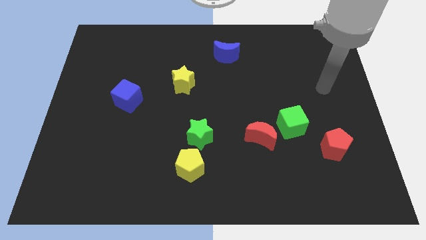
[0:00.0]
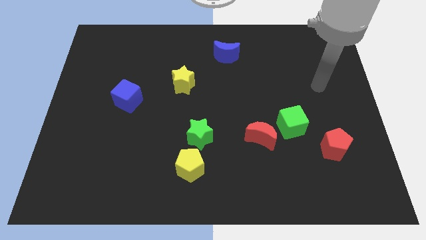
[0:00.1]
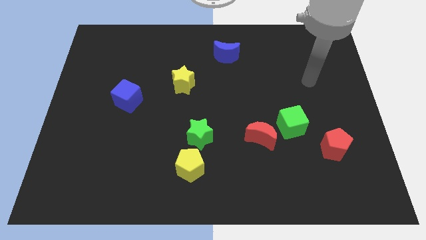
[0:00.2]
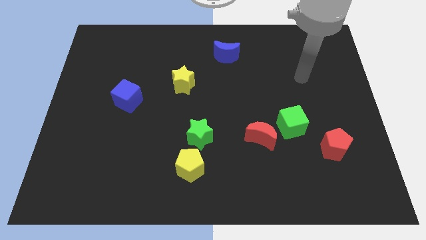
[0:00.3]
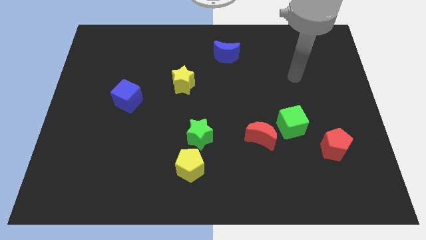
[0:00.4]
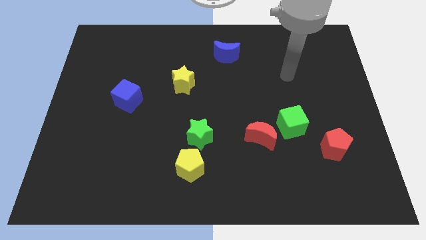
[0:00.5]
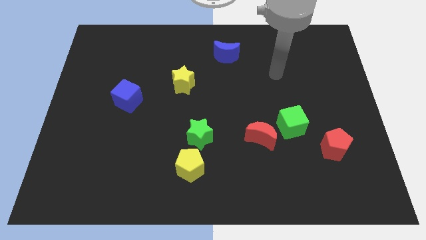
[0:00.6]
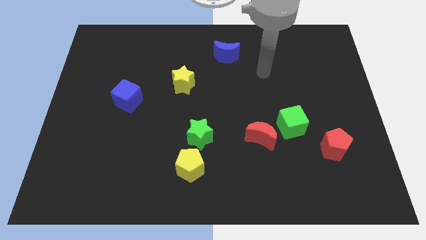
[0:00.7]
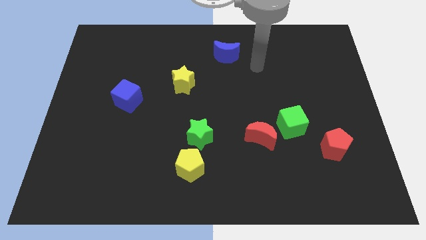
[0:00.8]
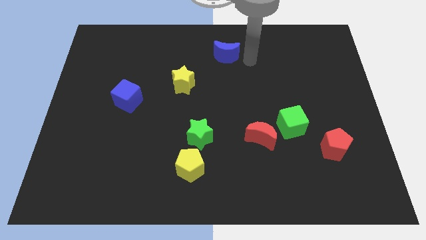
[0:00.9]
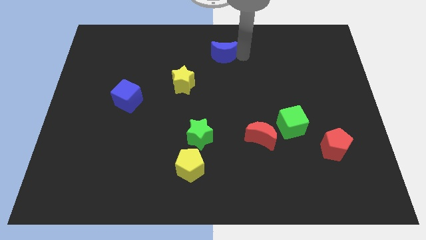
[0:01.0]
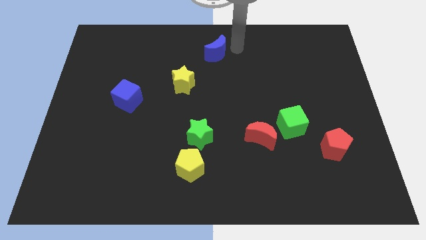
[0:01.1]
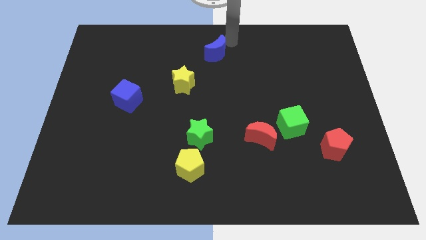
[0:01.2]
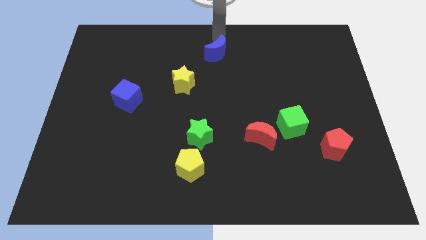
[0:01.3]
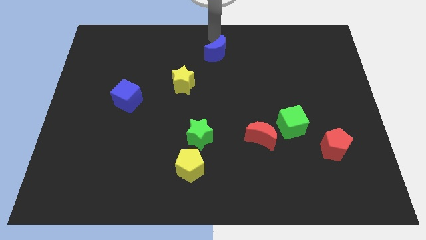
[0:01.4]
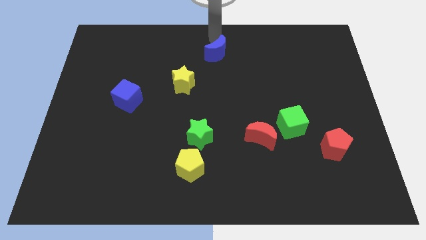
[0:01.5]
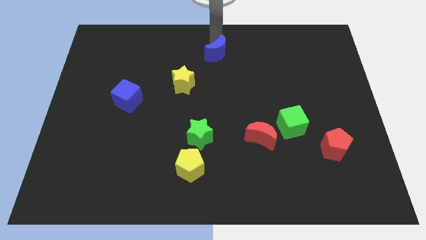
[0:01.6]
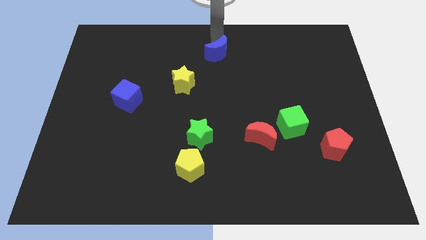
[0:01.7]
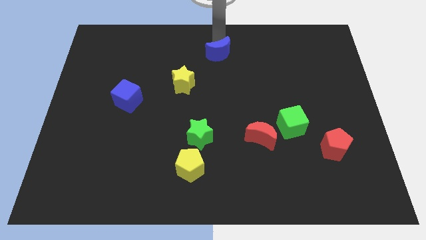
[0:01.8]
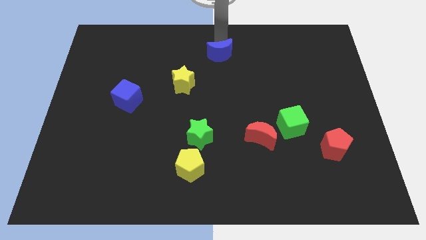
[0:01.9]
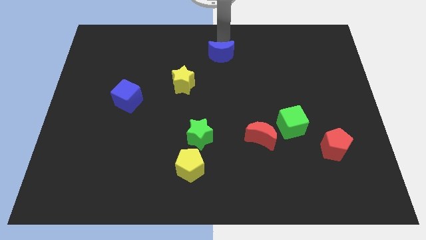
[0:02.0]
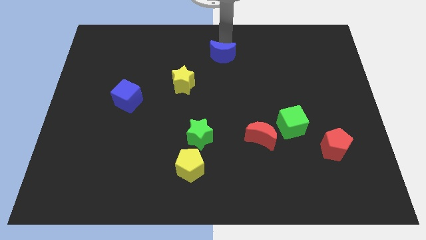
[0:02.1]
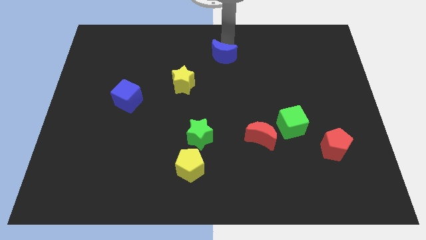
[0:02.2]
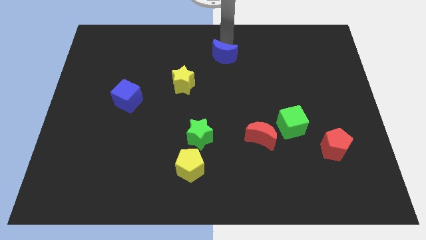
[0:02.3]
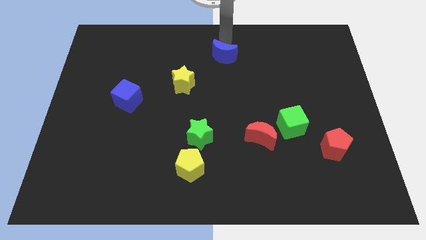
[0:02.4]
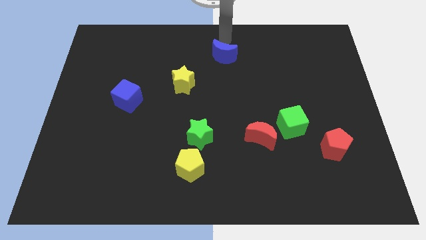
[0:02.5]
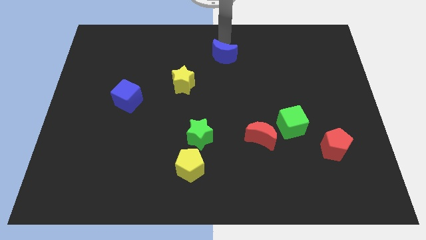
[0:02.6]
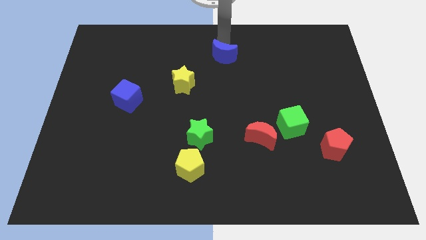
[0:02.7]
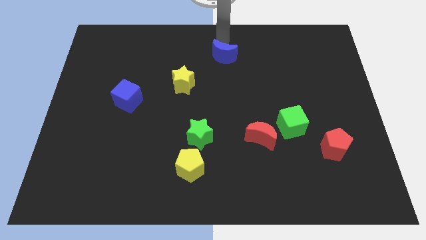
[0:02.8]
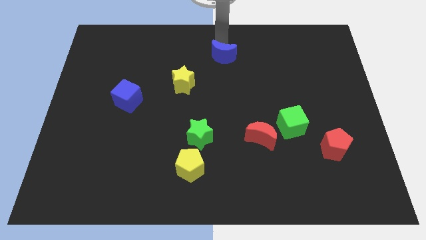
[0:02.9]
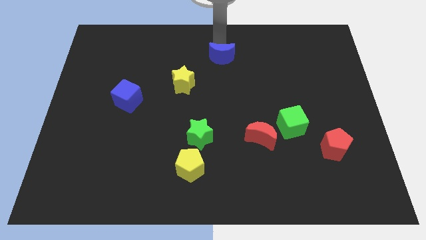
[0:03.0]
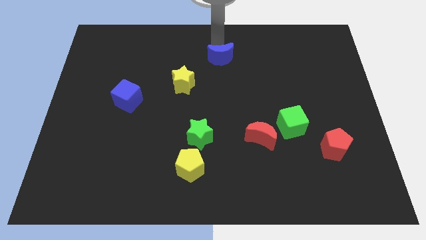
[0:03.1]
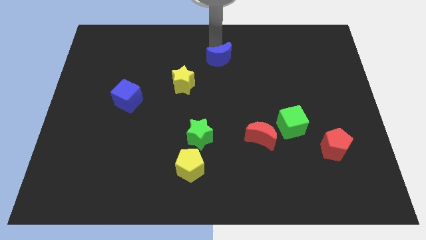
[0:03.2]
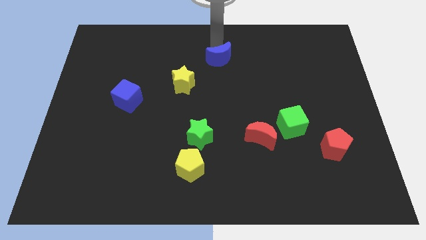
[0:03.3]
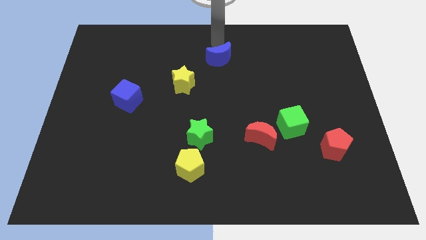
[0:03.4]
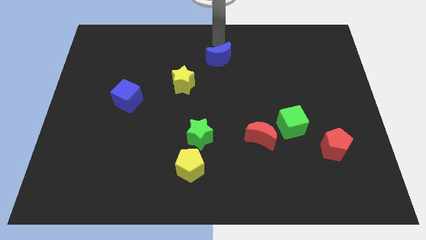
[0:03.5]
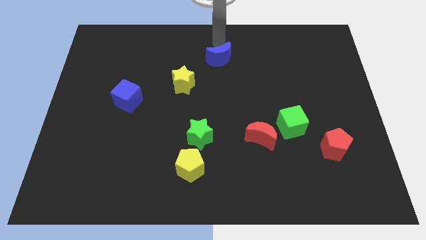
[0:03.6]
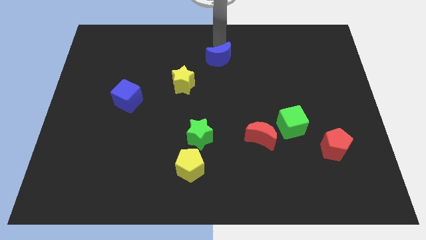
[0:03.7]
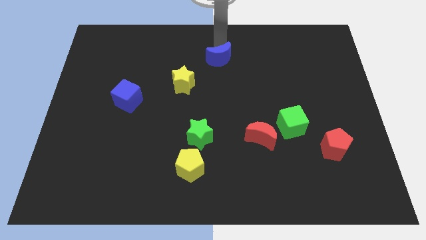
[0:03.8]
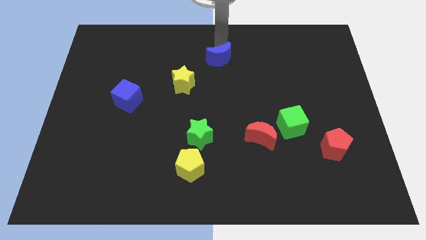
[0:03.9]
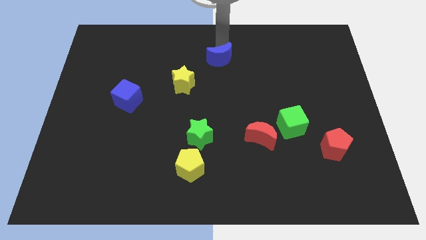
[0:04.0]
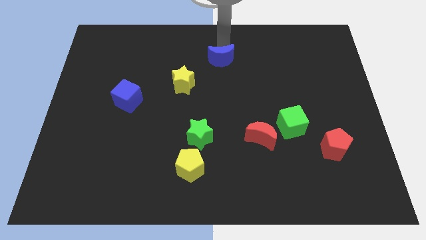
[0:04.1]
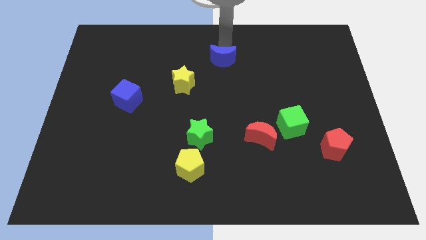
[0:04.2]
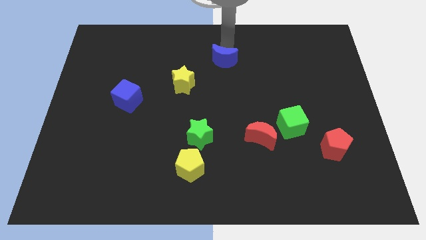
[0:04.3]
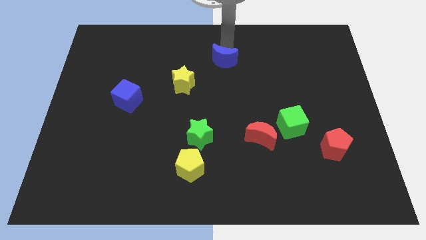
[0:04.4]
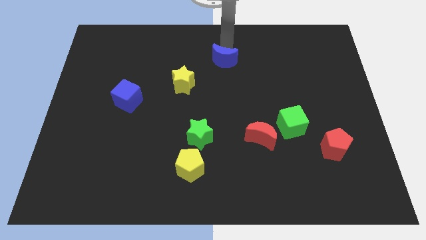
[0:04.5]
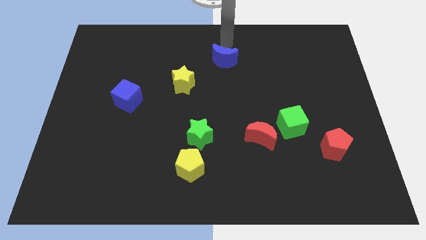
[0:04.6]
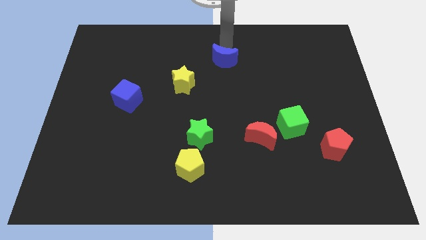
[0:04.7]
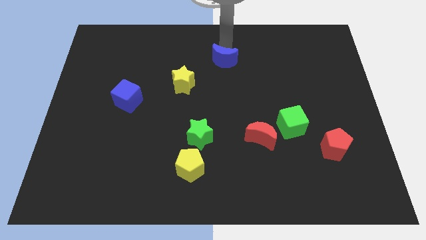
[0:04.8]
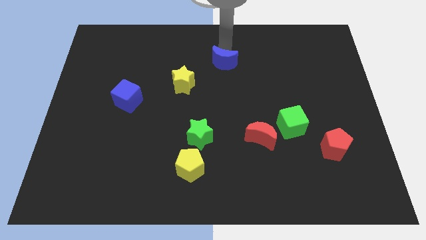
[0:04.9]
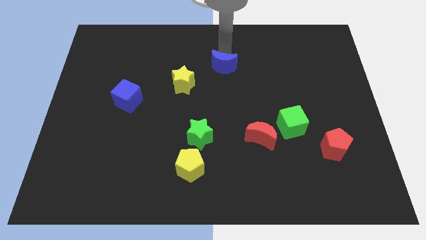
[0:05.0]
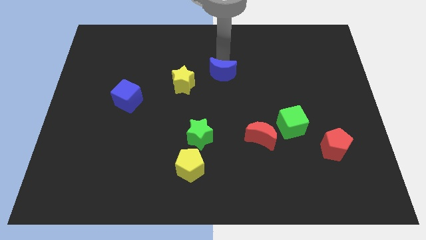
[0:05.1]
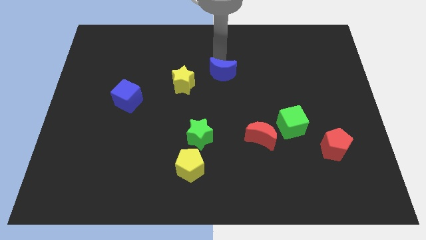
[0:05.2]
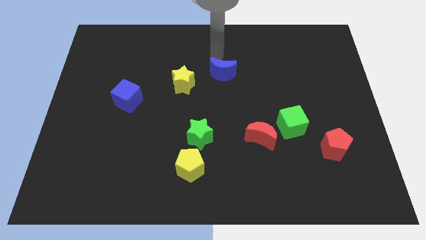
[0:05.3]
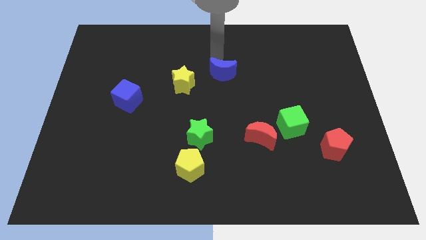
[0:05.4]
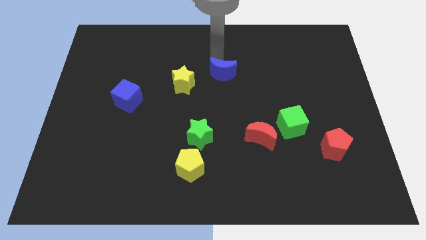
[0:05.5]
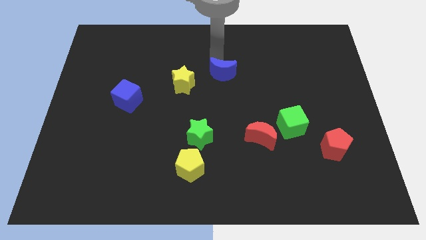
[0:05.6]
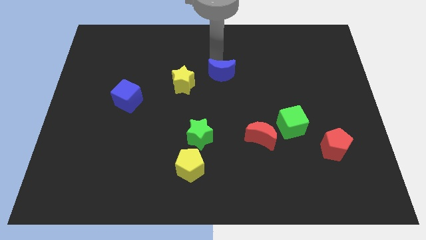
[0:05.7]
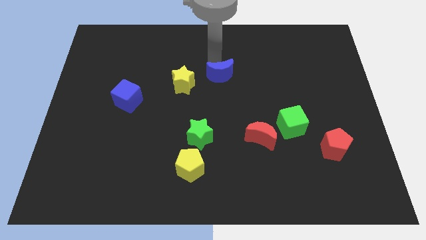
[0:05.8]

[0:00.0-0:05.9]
slide the blue moon slightly downwards

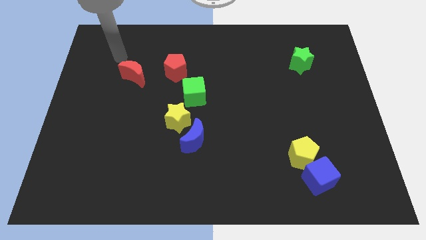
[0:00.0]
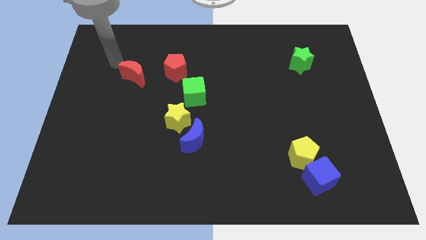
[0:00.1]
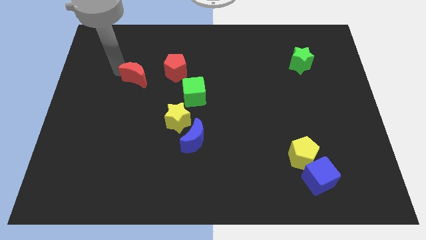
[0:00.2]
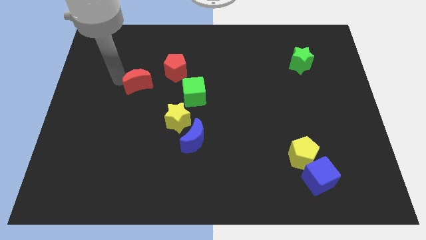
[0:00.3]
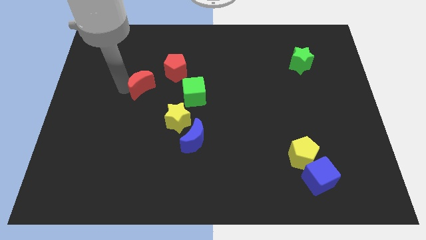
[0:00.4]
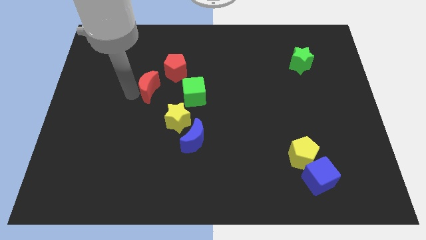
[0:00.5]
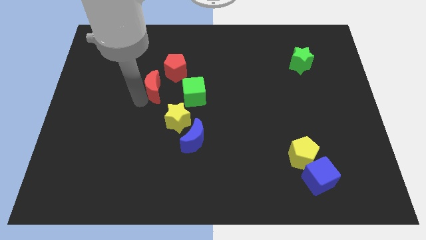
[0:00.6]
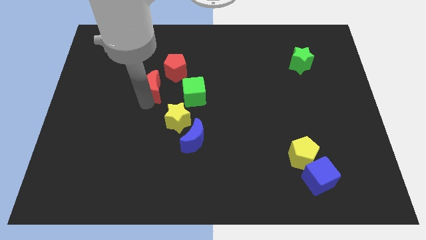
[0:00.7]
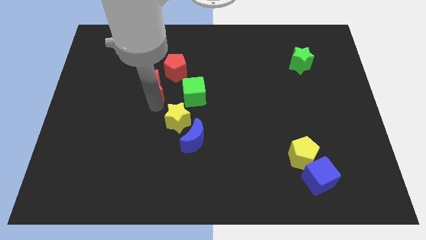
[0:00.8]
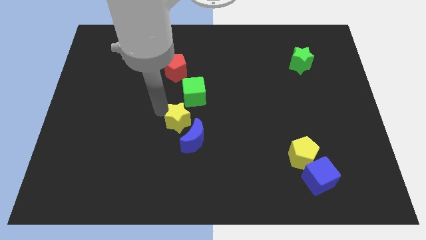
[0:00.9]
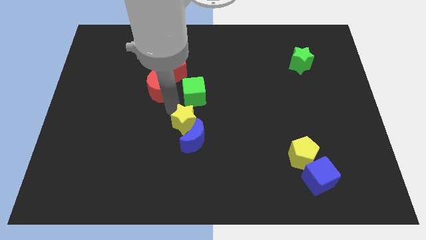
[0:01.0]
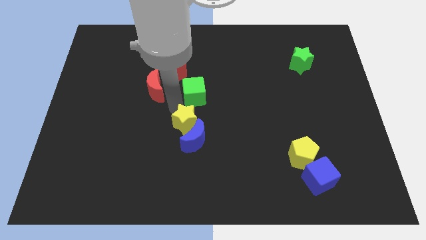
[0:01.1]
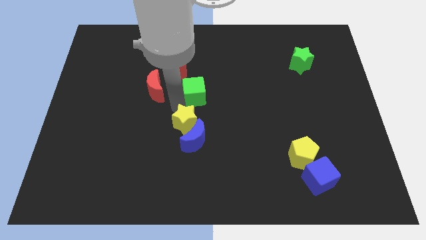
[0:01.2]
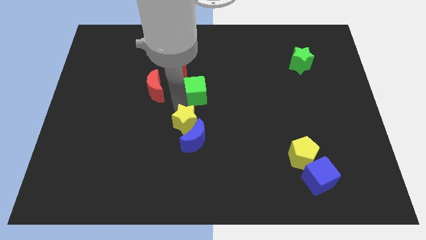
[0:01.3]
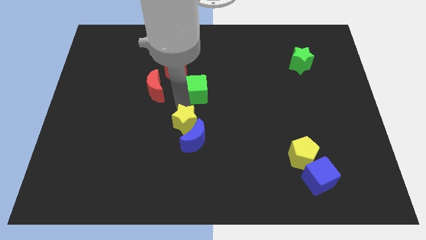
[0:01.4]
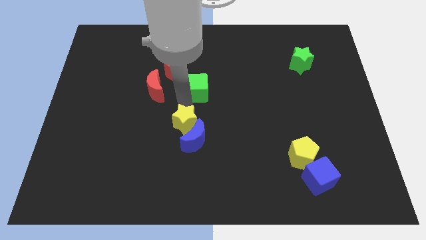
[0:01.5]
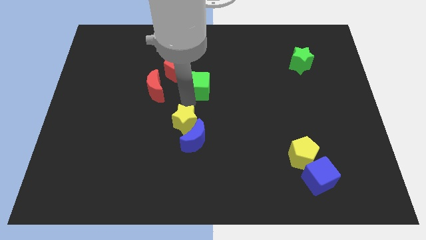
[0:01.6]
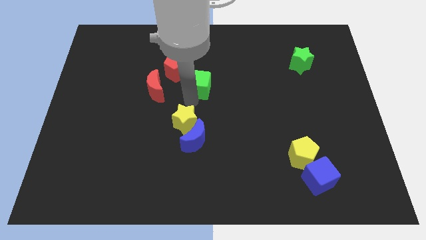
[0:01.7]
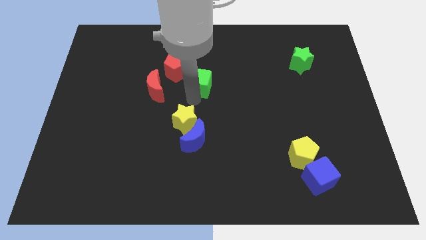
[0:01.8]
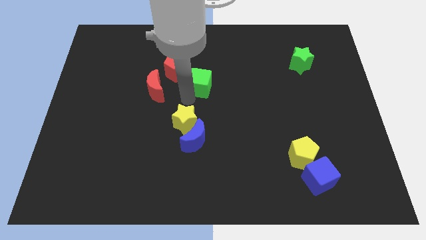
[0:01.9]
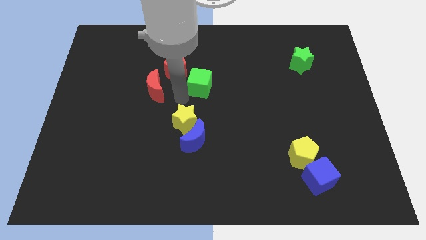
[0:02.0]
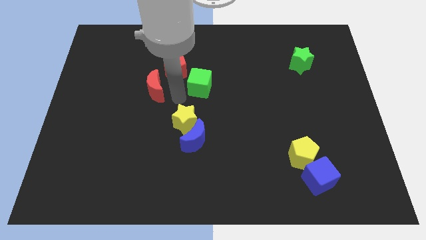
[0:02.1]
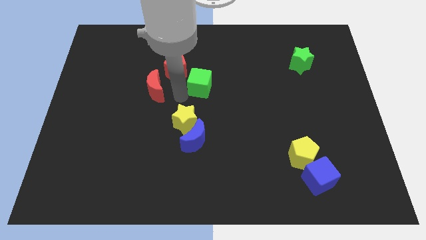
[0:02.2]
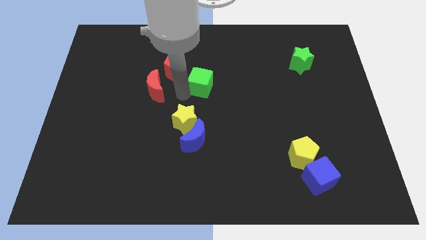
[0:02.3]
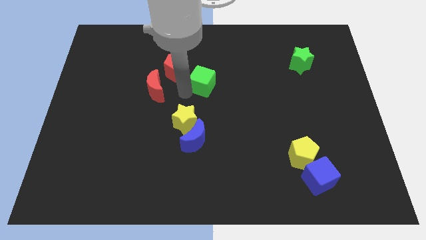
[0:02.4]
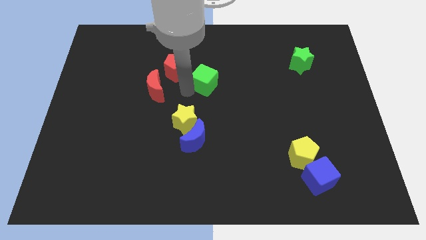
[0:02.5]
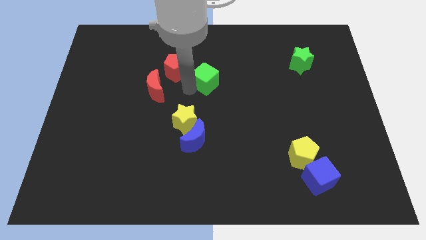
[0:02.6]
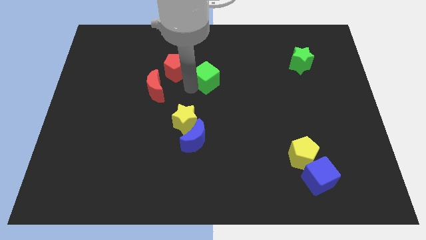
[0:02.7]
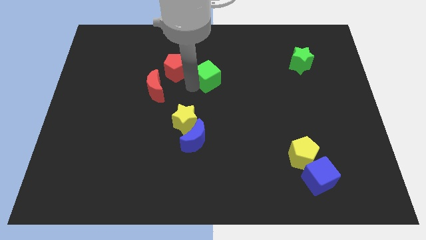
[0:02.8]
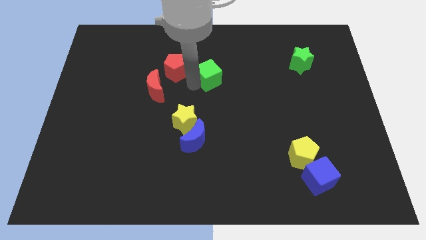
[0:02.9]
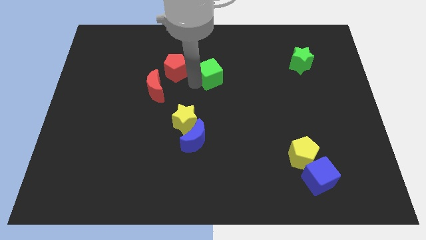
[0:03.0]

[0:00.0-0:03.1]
move the green cube a little up and to the right
